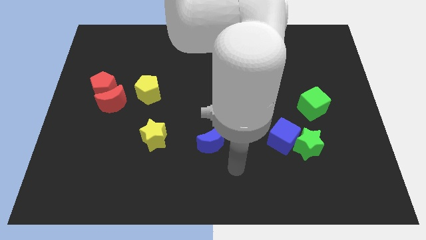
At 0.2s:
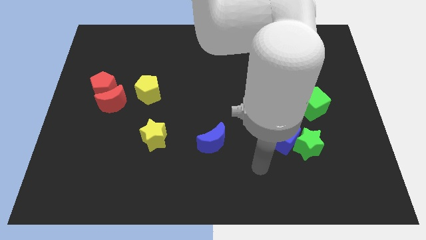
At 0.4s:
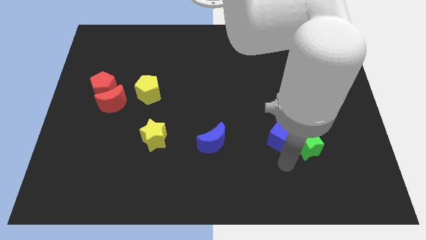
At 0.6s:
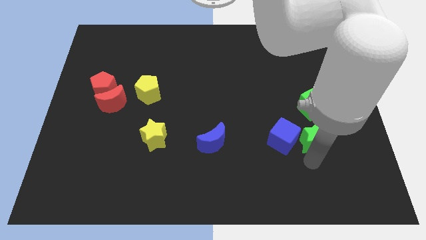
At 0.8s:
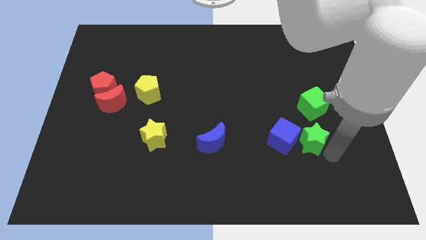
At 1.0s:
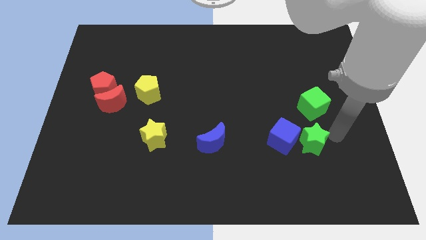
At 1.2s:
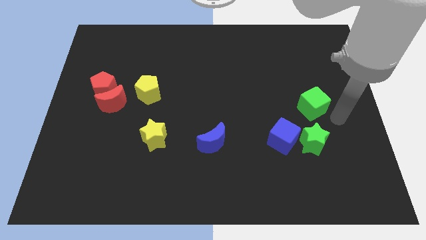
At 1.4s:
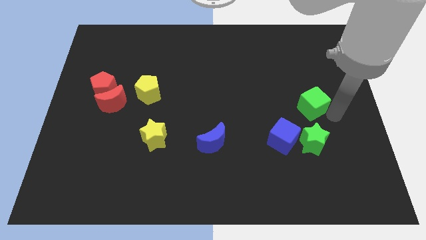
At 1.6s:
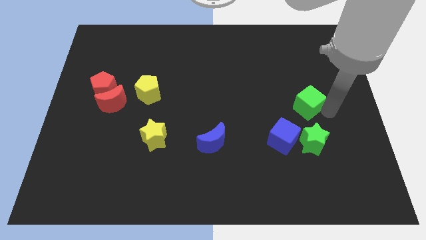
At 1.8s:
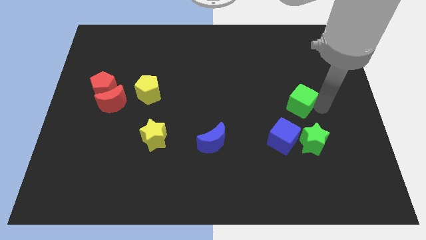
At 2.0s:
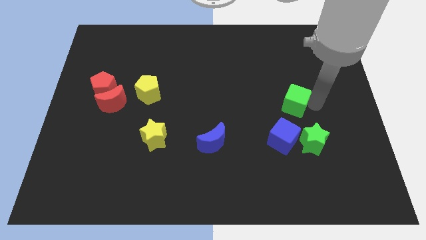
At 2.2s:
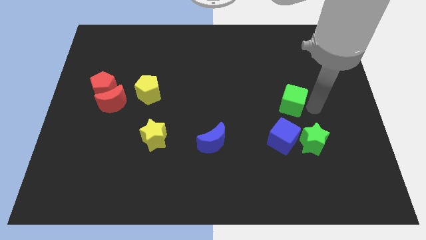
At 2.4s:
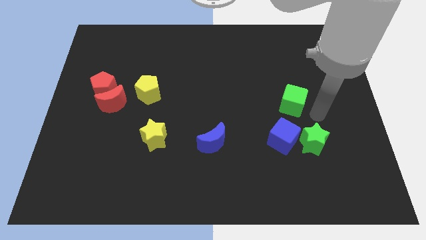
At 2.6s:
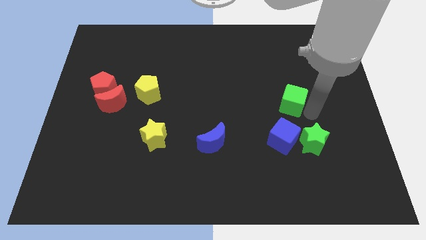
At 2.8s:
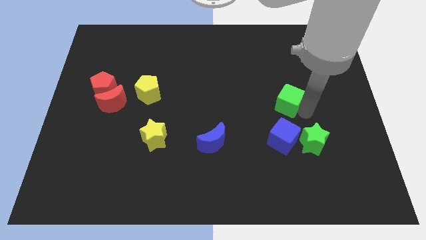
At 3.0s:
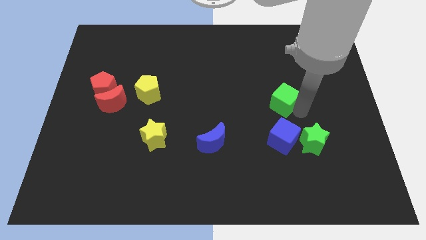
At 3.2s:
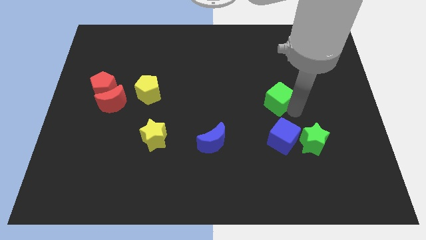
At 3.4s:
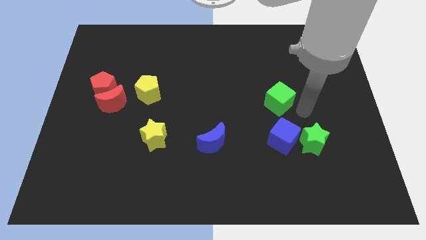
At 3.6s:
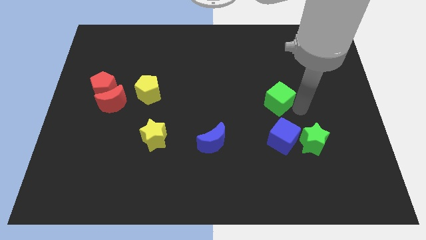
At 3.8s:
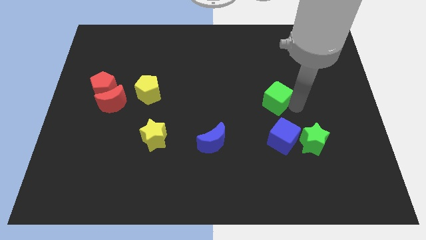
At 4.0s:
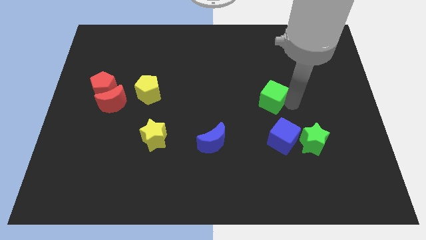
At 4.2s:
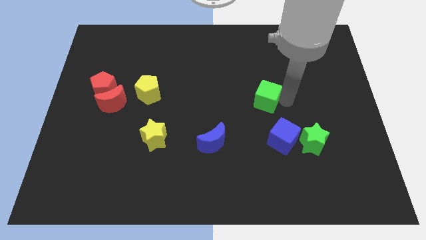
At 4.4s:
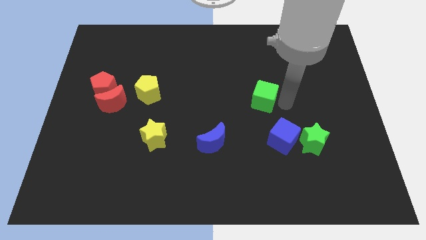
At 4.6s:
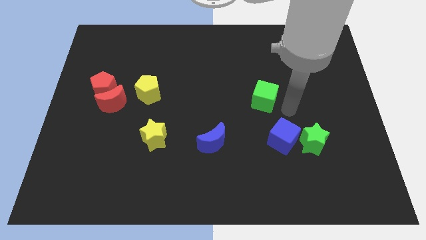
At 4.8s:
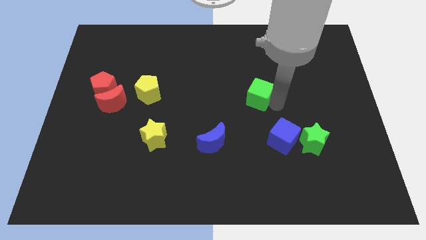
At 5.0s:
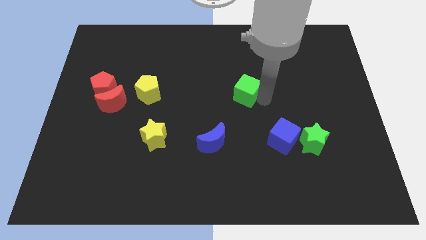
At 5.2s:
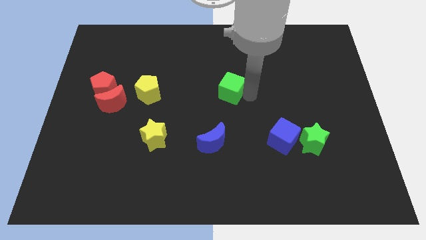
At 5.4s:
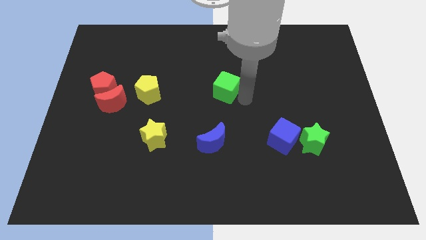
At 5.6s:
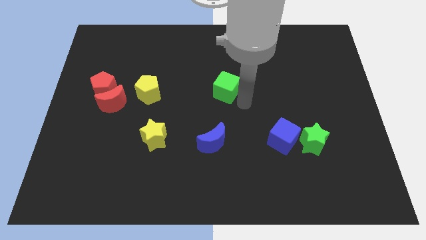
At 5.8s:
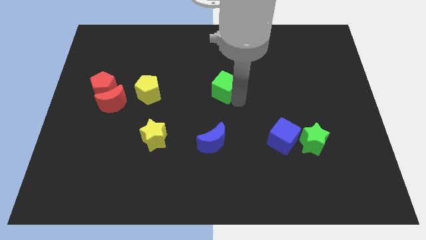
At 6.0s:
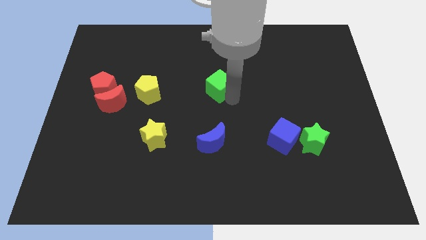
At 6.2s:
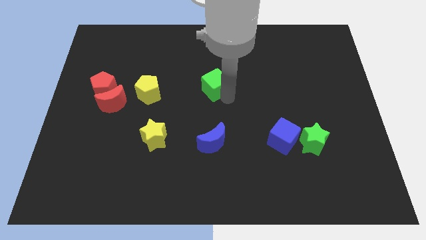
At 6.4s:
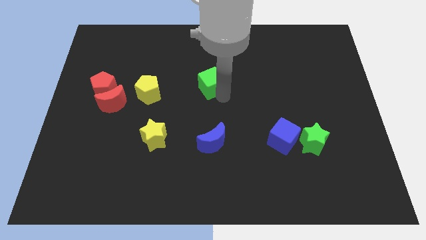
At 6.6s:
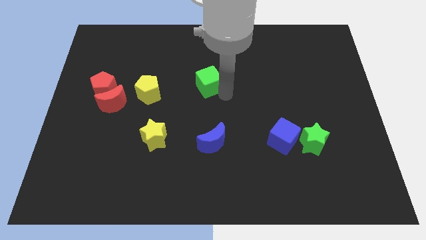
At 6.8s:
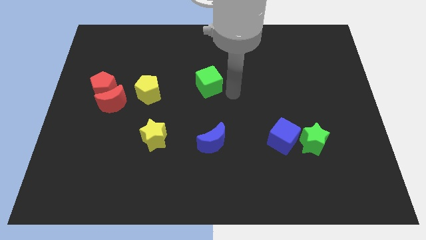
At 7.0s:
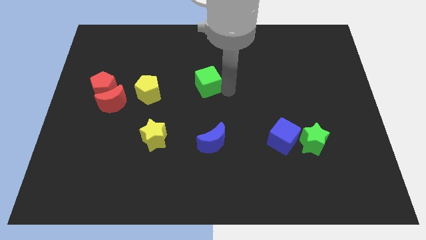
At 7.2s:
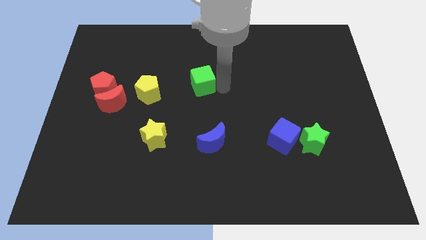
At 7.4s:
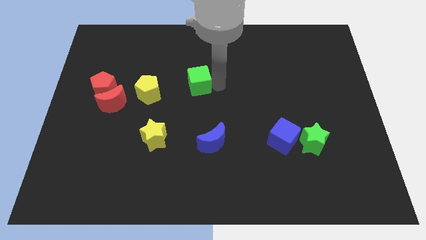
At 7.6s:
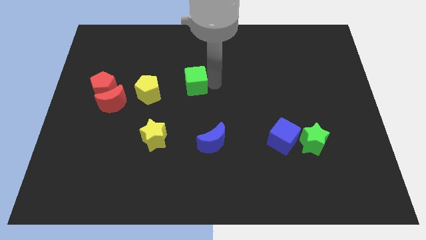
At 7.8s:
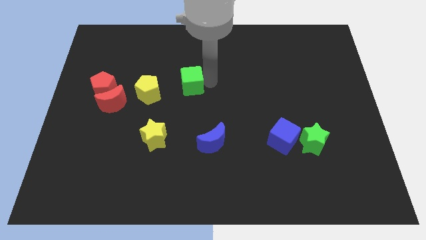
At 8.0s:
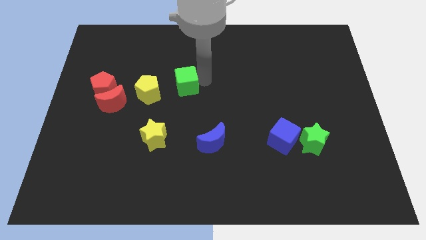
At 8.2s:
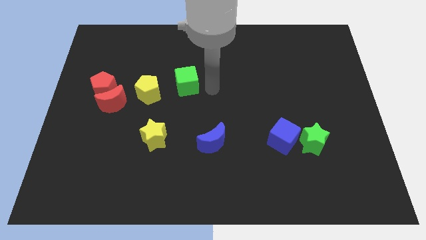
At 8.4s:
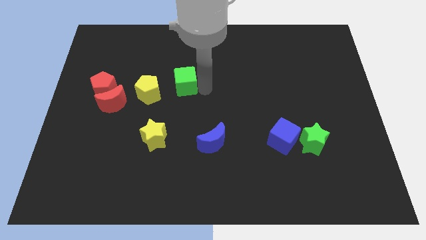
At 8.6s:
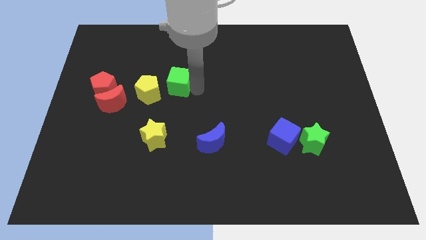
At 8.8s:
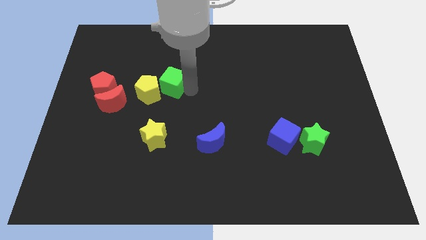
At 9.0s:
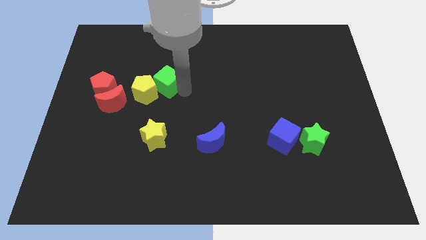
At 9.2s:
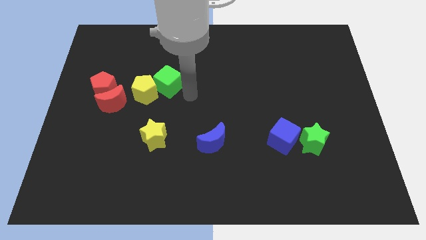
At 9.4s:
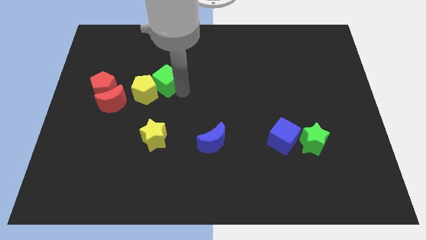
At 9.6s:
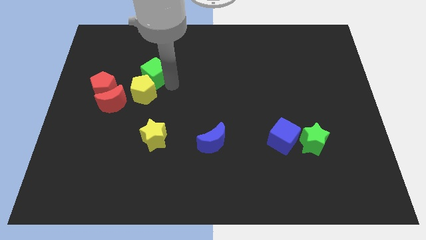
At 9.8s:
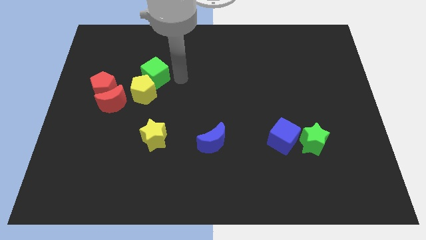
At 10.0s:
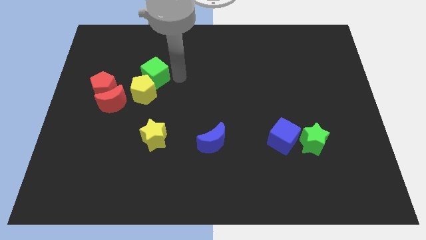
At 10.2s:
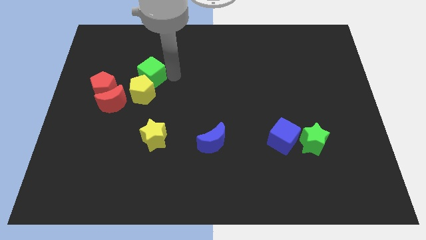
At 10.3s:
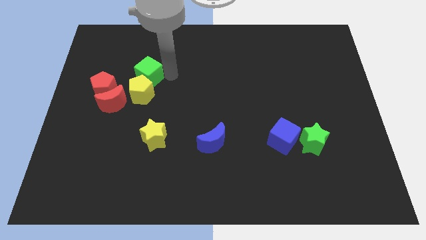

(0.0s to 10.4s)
slide the green cube diagonally up and to the right of the red pentagon

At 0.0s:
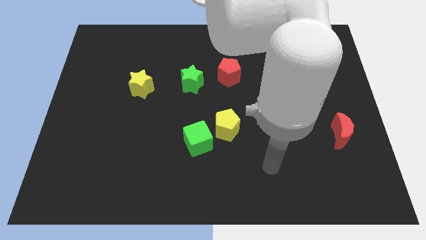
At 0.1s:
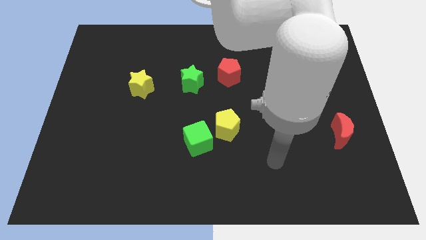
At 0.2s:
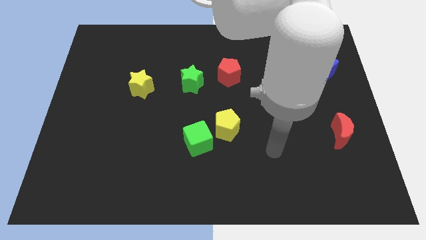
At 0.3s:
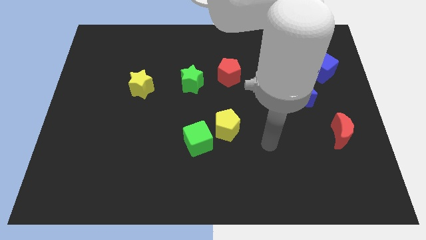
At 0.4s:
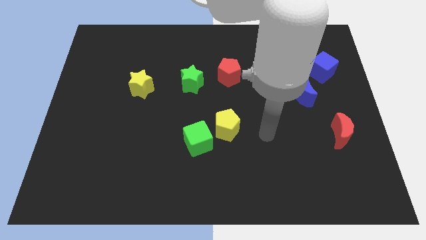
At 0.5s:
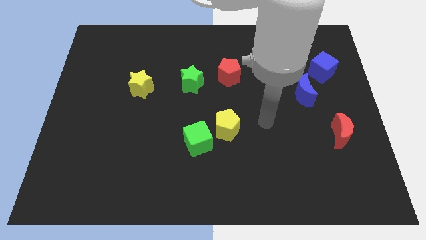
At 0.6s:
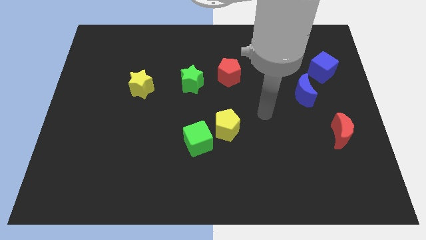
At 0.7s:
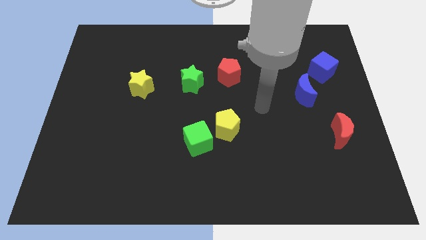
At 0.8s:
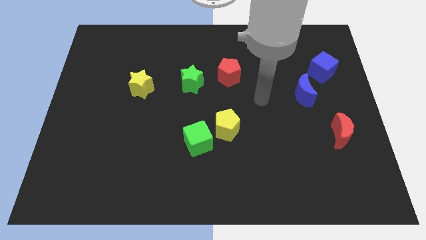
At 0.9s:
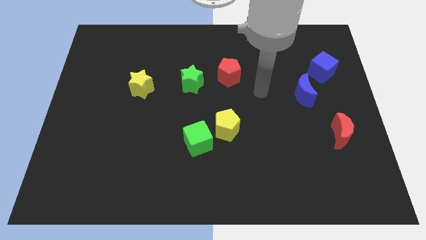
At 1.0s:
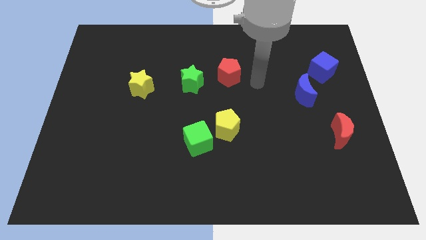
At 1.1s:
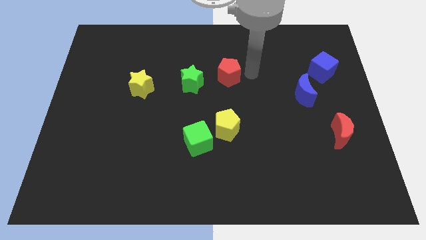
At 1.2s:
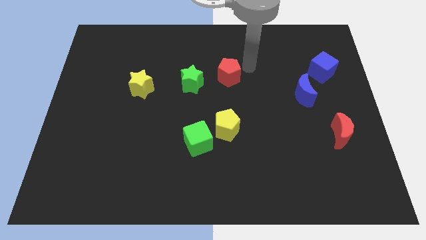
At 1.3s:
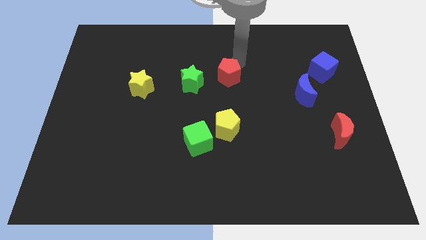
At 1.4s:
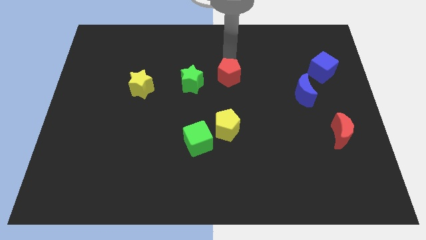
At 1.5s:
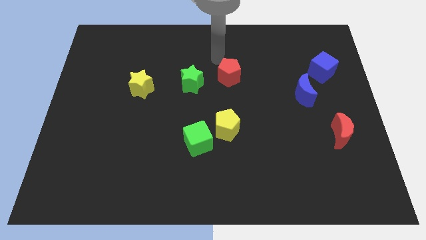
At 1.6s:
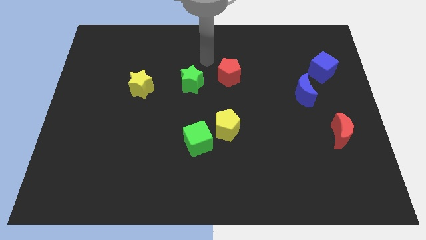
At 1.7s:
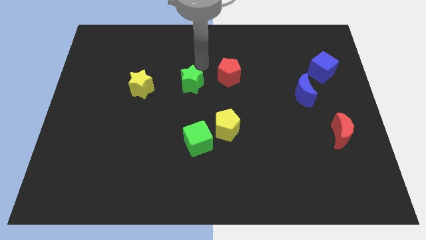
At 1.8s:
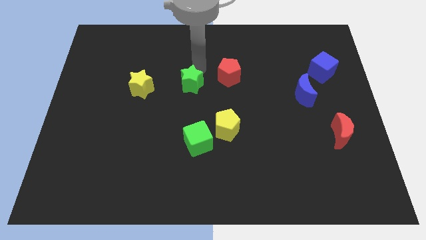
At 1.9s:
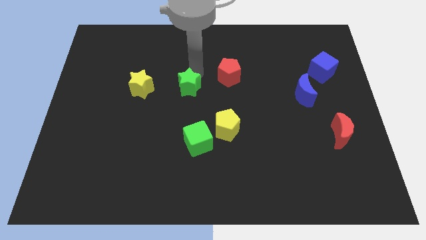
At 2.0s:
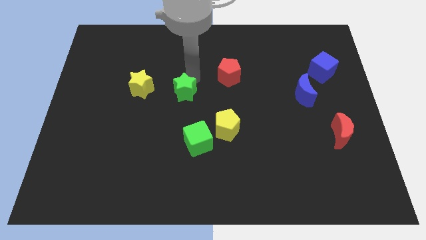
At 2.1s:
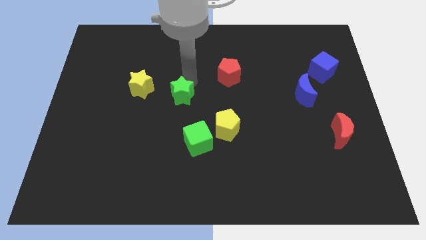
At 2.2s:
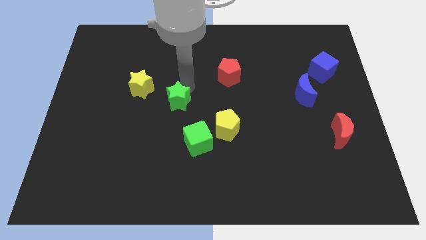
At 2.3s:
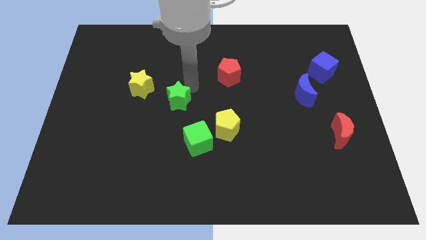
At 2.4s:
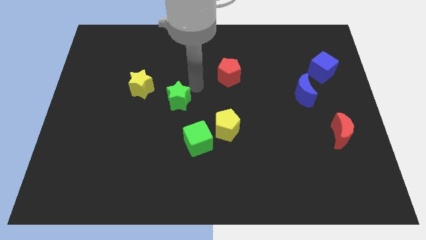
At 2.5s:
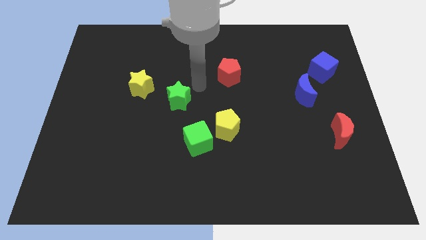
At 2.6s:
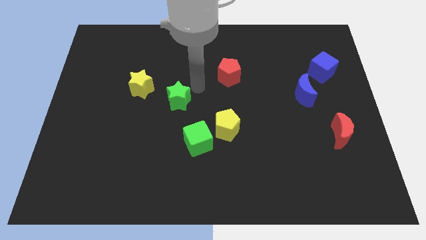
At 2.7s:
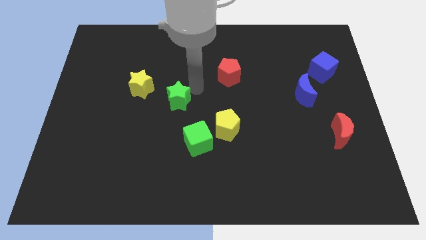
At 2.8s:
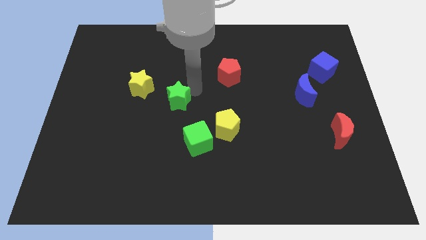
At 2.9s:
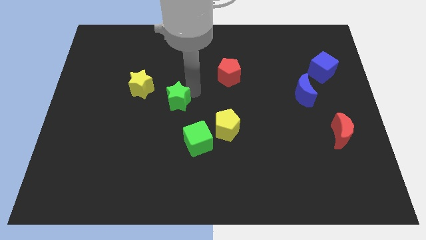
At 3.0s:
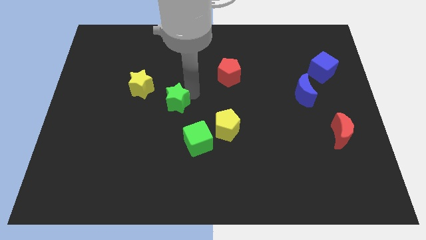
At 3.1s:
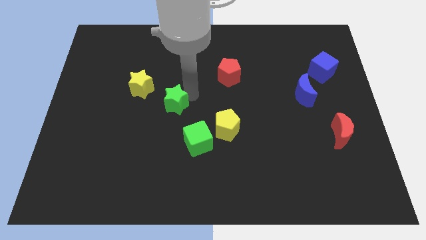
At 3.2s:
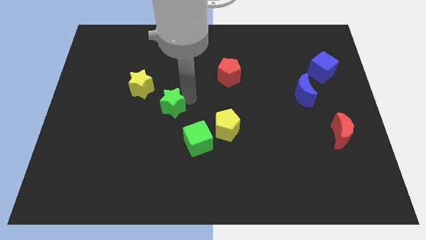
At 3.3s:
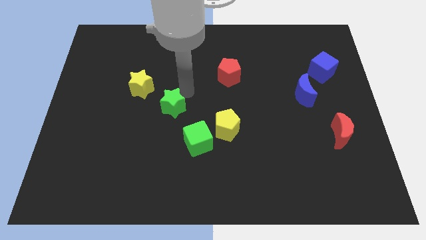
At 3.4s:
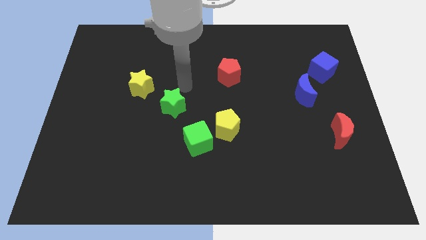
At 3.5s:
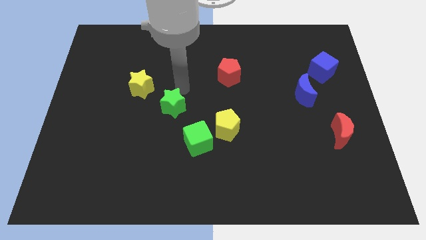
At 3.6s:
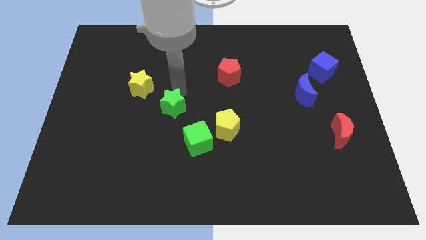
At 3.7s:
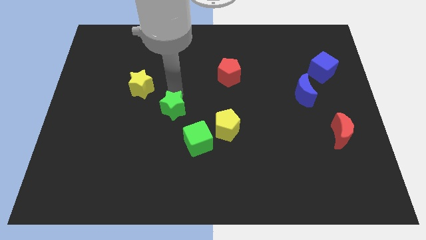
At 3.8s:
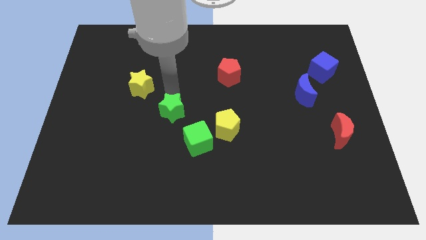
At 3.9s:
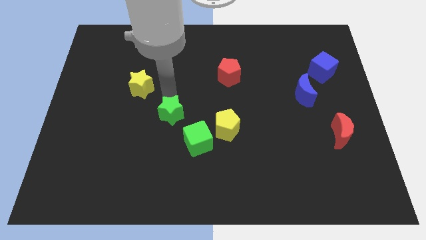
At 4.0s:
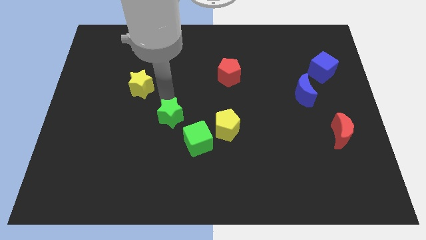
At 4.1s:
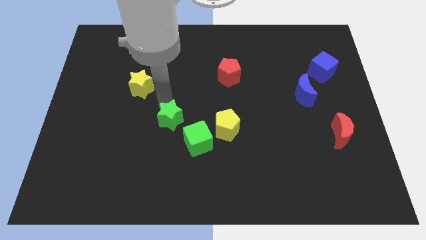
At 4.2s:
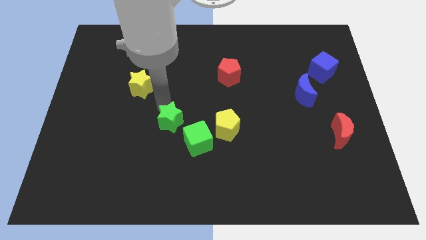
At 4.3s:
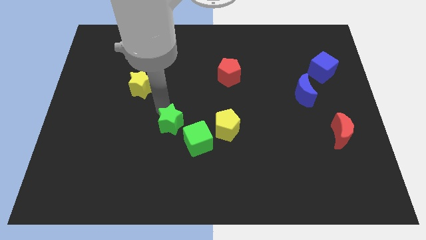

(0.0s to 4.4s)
put the green star to the left side of the green cube
